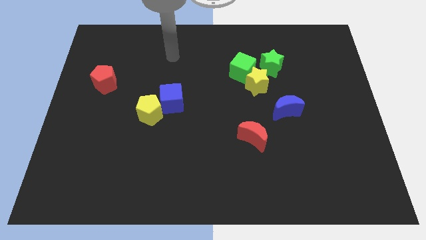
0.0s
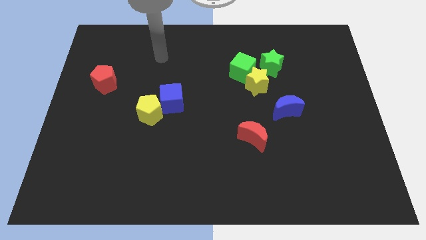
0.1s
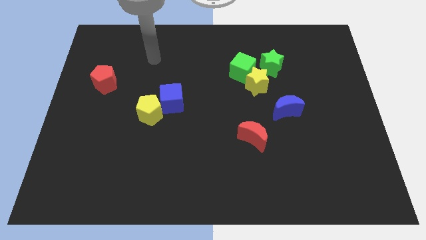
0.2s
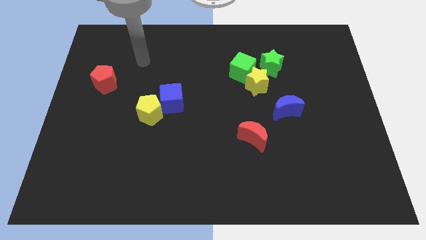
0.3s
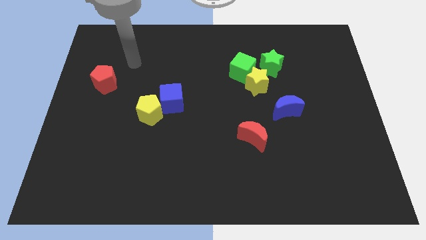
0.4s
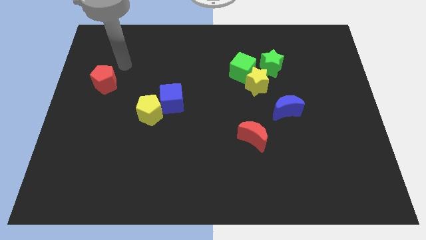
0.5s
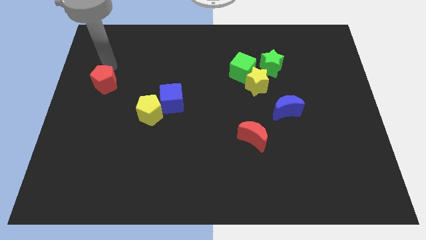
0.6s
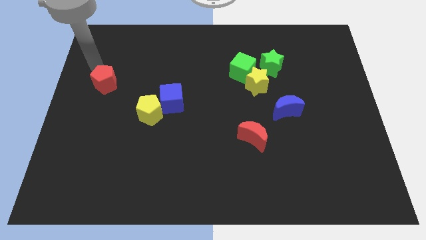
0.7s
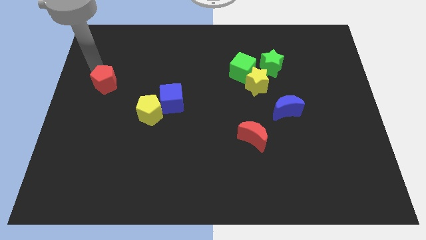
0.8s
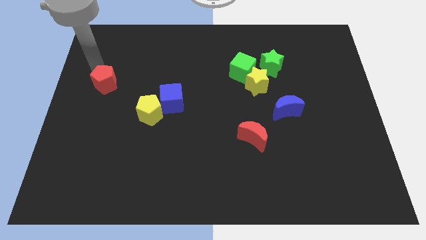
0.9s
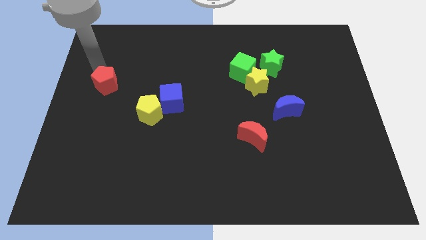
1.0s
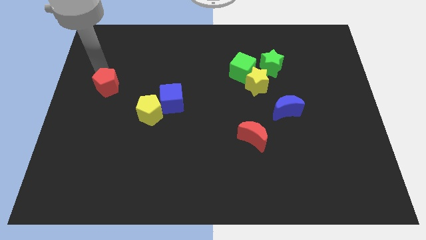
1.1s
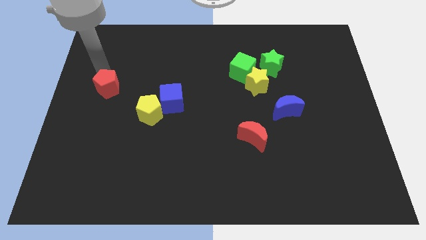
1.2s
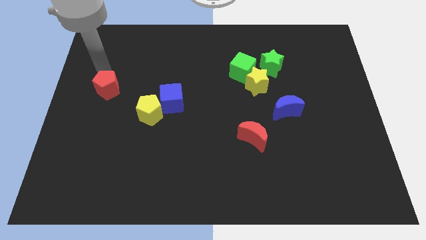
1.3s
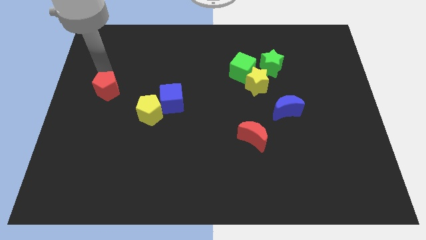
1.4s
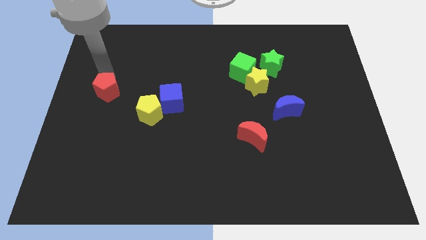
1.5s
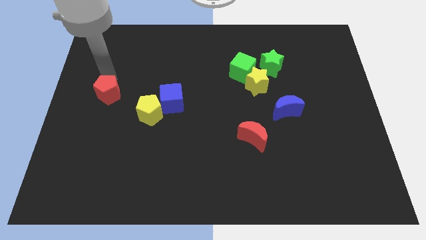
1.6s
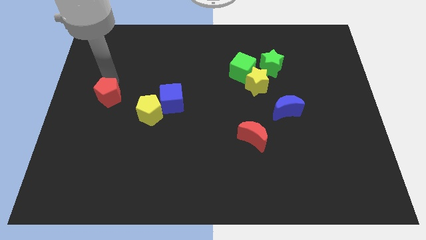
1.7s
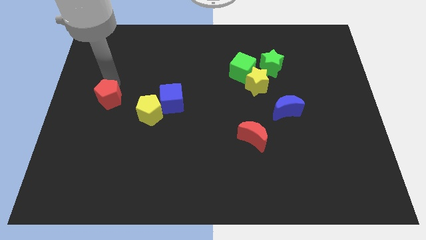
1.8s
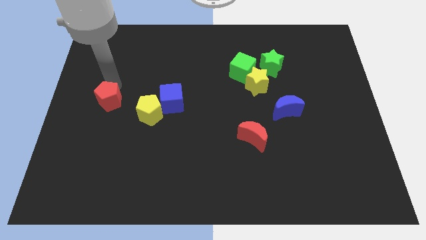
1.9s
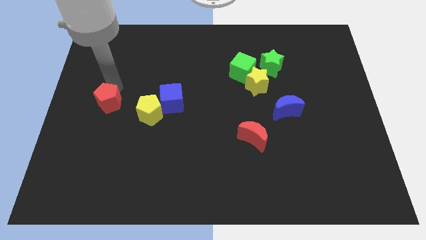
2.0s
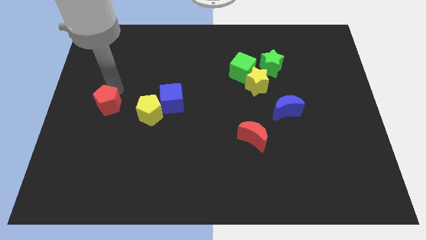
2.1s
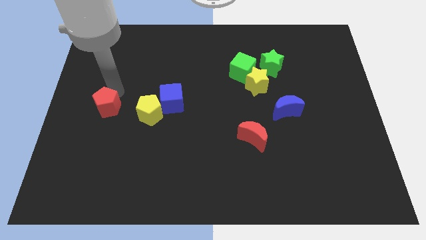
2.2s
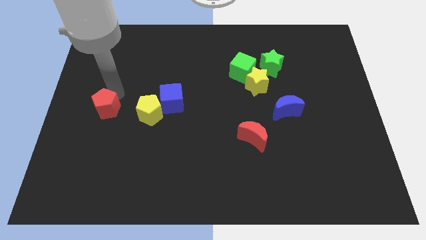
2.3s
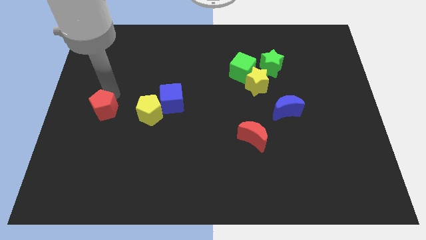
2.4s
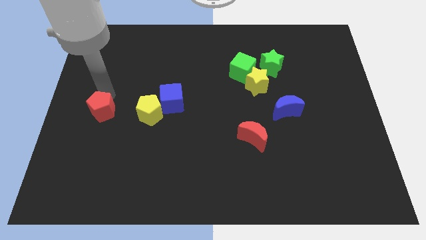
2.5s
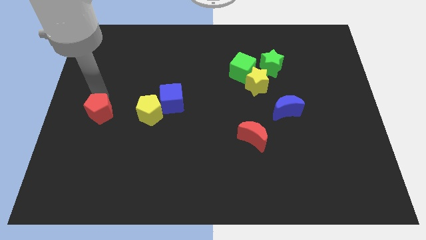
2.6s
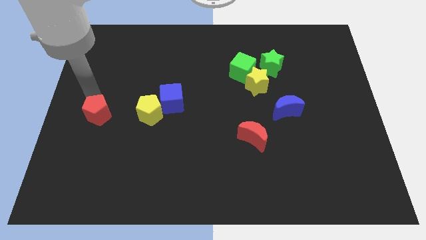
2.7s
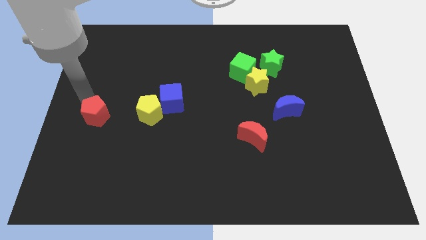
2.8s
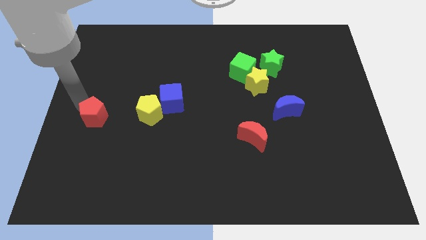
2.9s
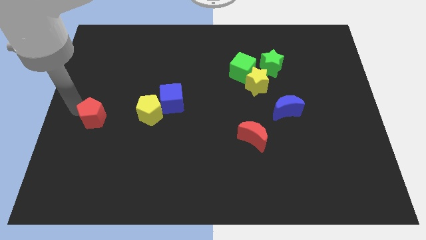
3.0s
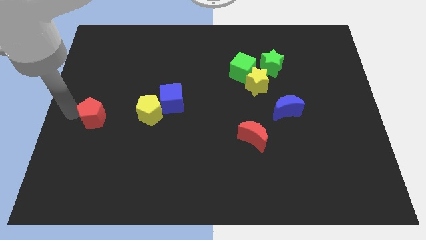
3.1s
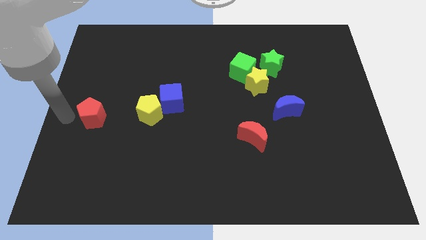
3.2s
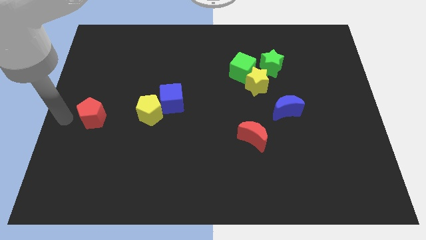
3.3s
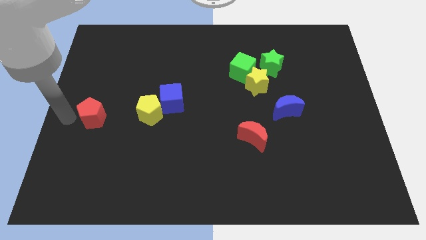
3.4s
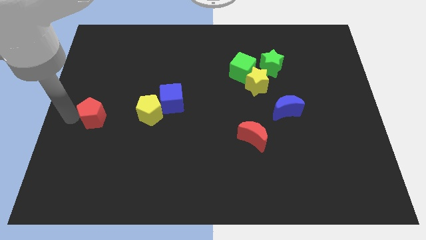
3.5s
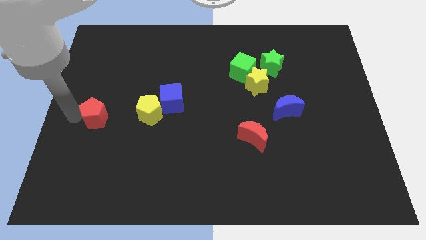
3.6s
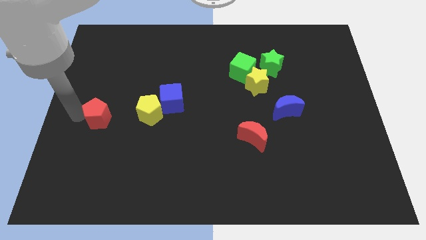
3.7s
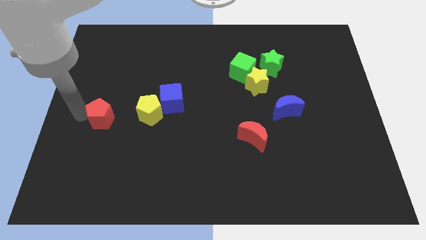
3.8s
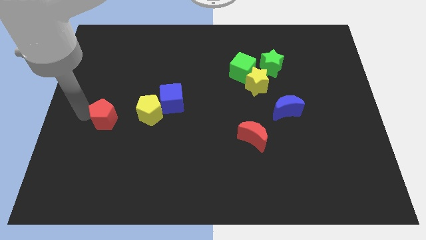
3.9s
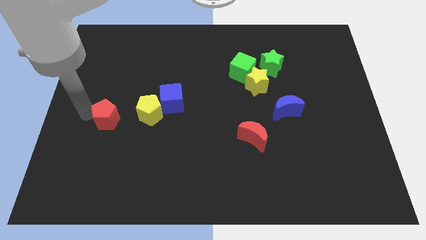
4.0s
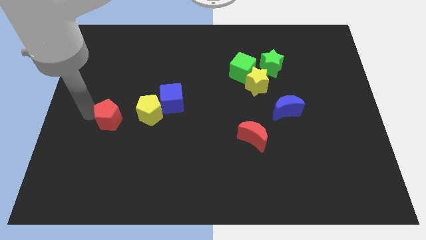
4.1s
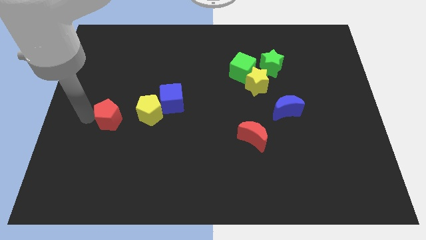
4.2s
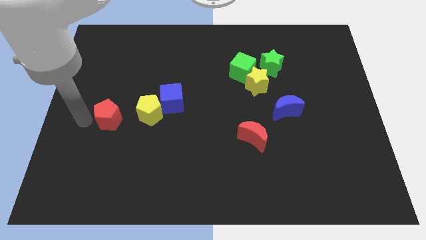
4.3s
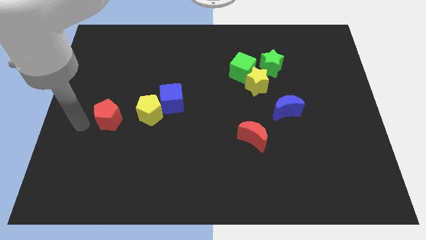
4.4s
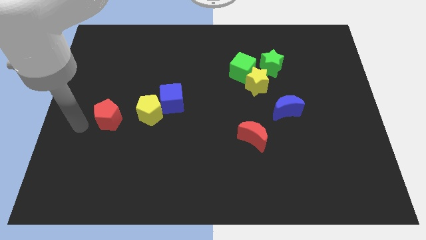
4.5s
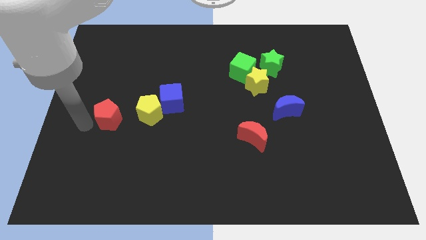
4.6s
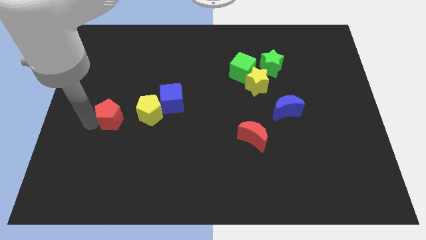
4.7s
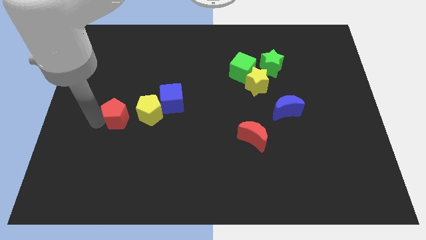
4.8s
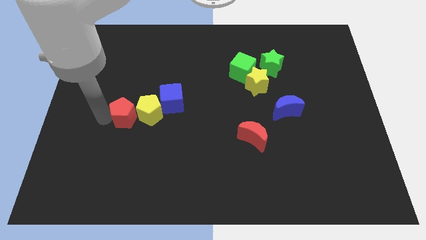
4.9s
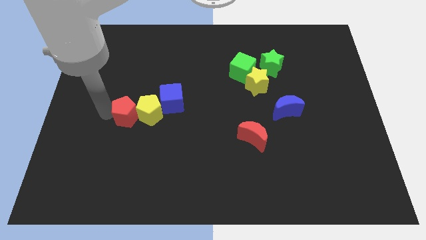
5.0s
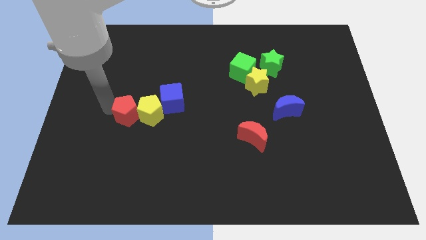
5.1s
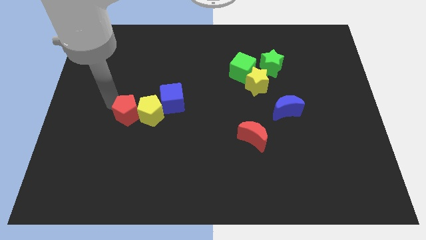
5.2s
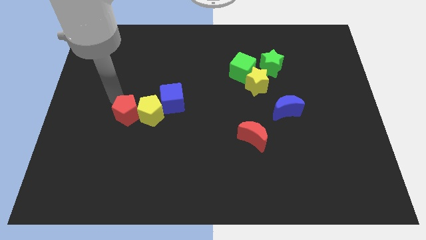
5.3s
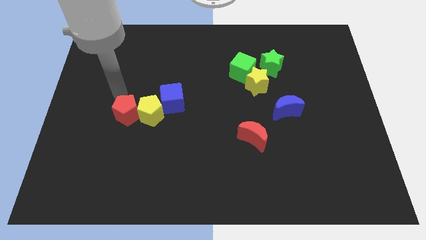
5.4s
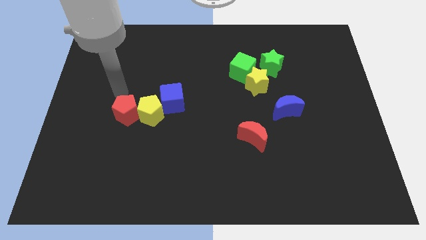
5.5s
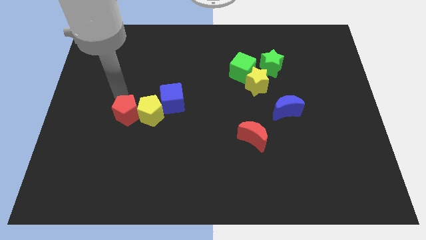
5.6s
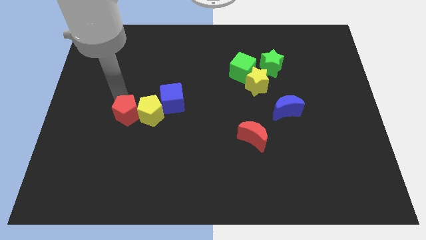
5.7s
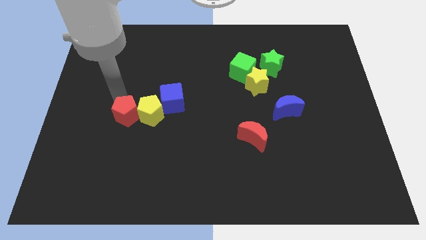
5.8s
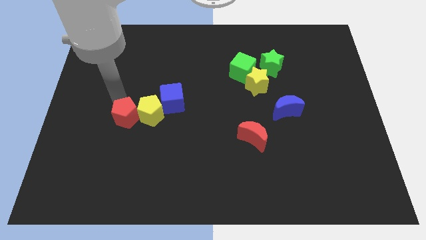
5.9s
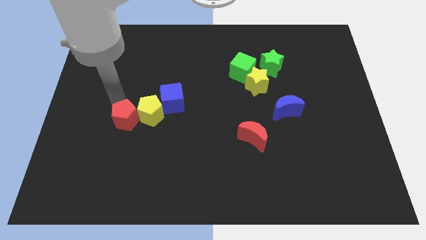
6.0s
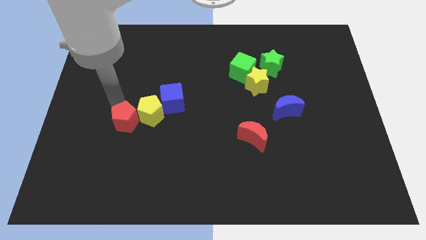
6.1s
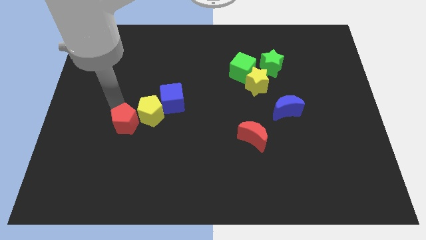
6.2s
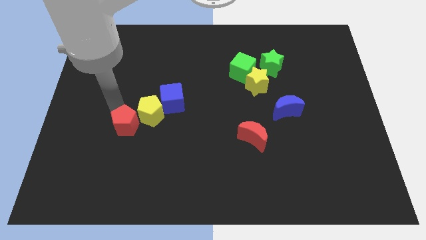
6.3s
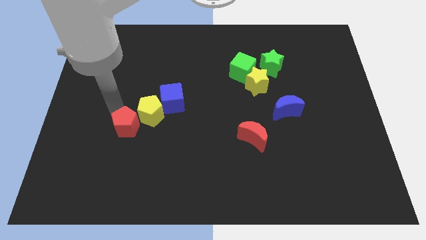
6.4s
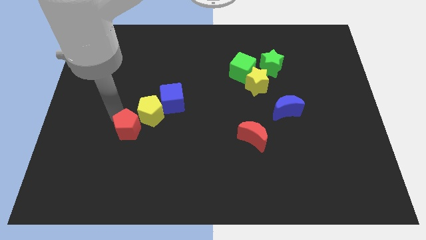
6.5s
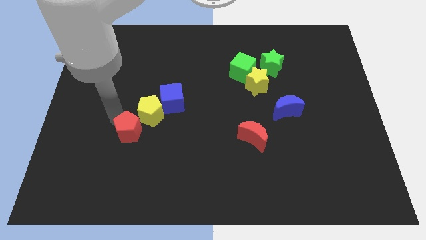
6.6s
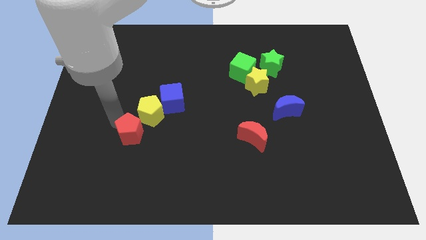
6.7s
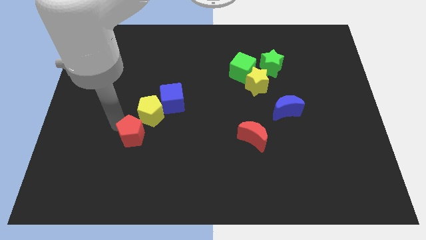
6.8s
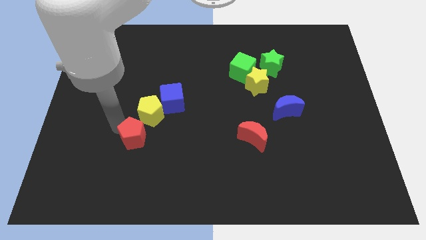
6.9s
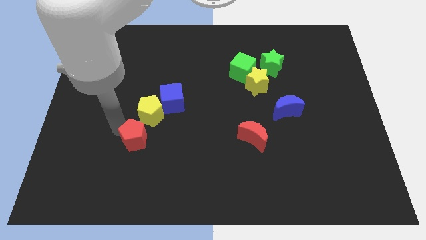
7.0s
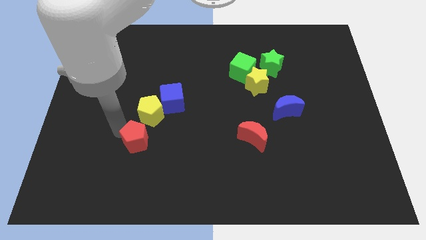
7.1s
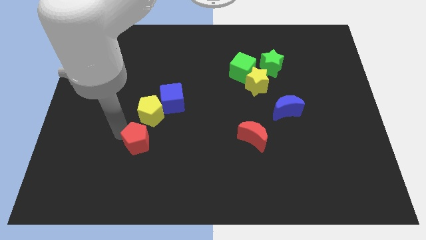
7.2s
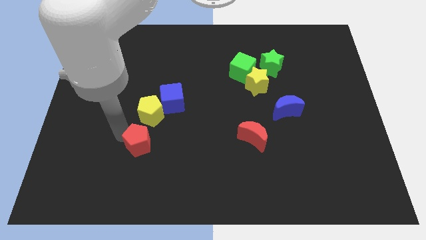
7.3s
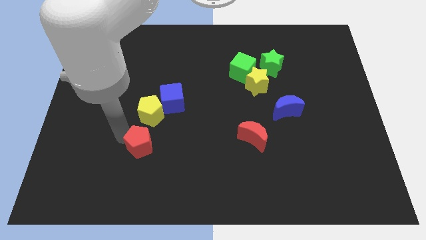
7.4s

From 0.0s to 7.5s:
move the red pentagon down and right diagonally

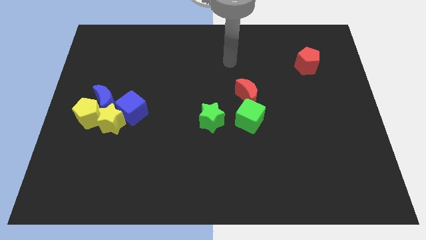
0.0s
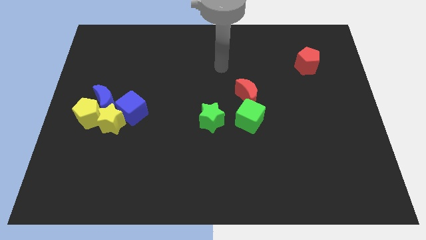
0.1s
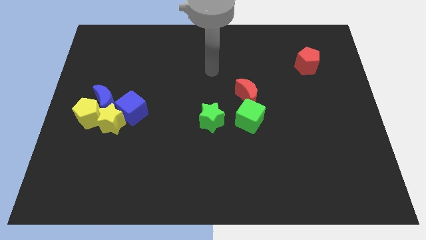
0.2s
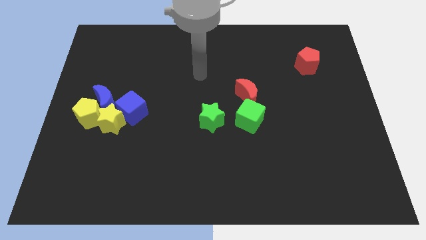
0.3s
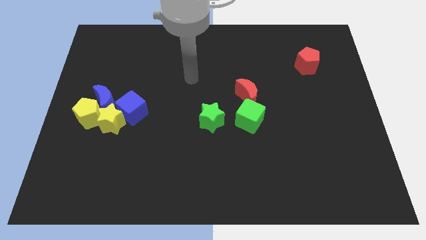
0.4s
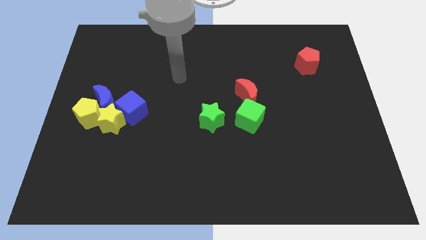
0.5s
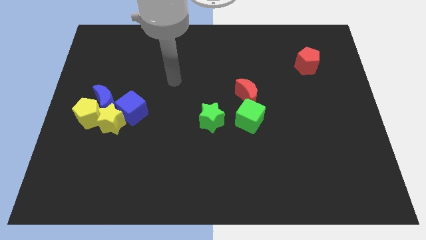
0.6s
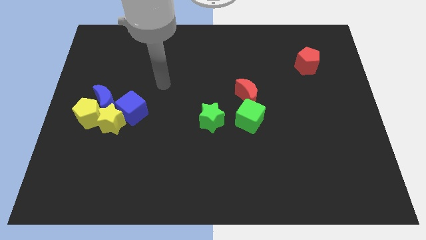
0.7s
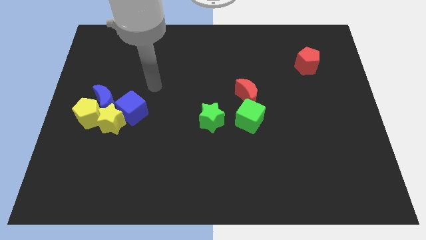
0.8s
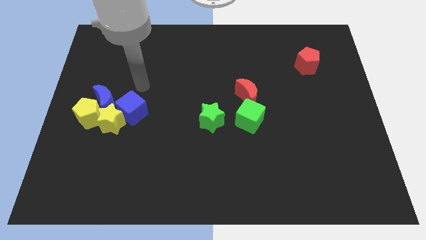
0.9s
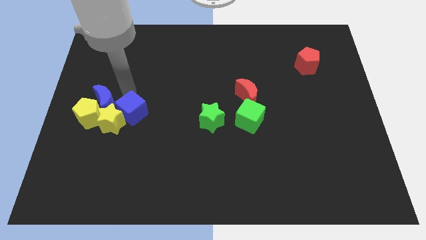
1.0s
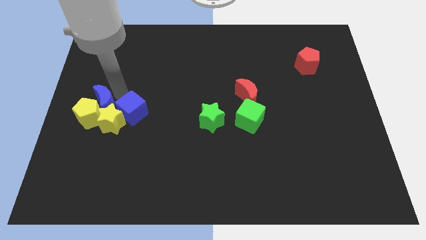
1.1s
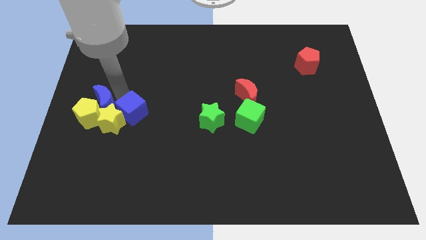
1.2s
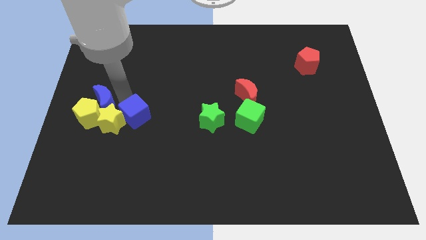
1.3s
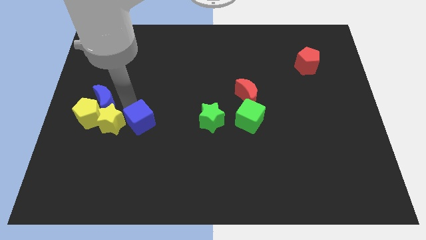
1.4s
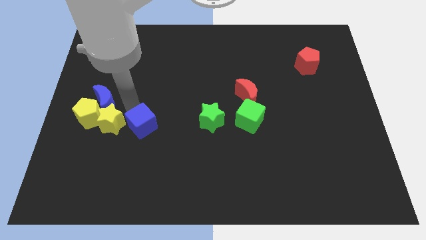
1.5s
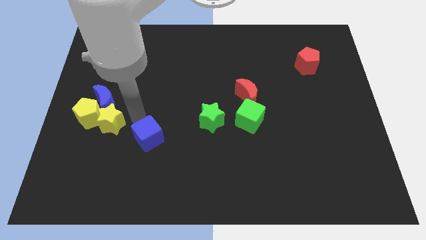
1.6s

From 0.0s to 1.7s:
slide the blue cube down and then to the right a little
